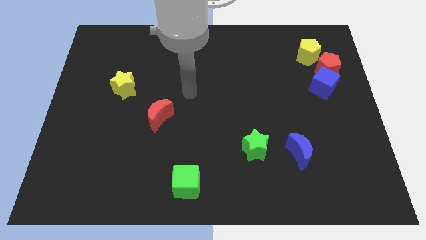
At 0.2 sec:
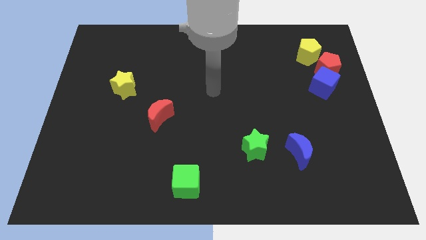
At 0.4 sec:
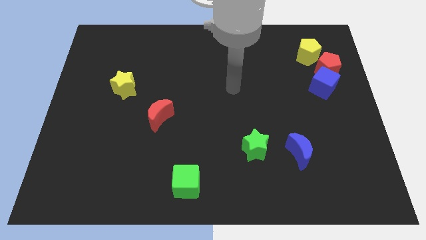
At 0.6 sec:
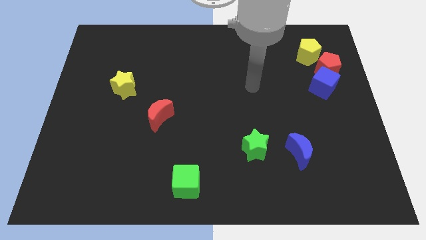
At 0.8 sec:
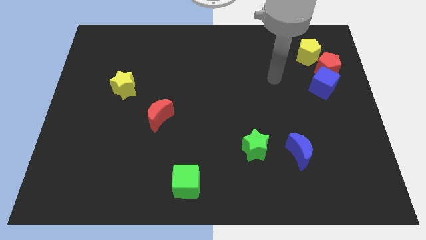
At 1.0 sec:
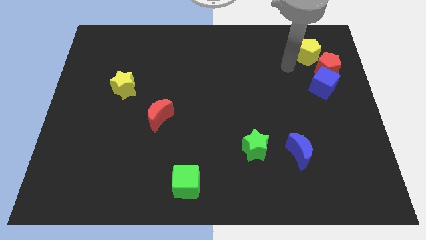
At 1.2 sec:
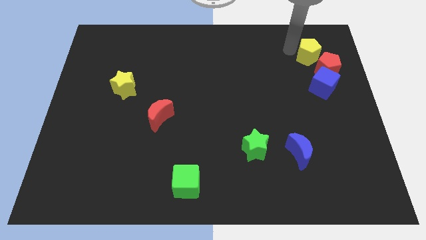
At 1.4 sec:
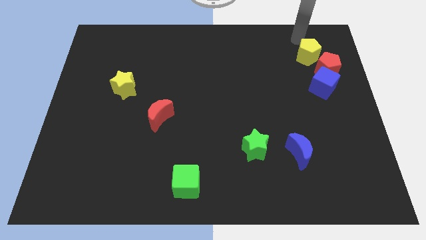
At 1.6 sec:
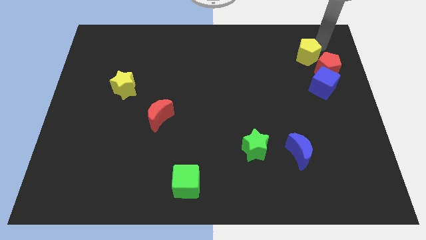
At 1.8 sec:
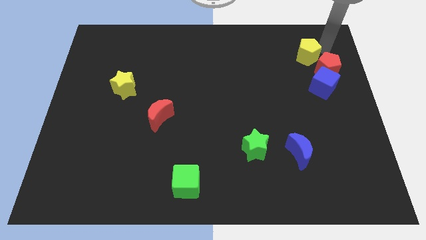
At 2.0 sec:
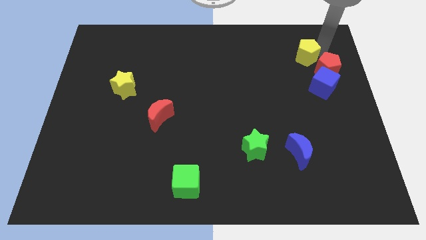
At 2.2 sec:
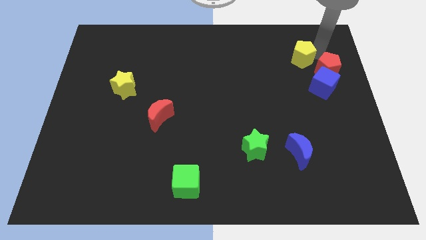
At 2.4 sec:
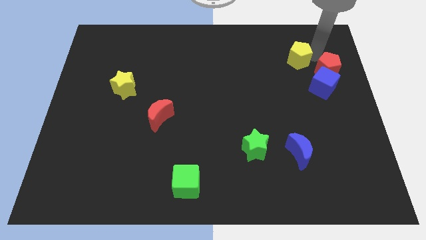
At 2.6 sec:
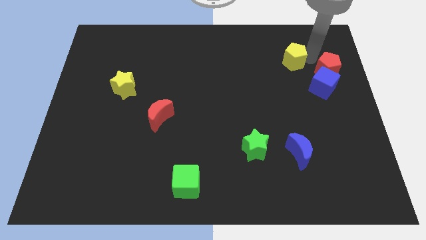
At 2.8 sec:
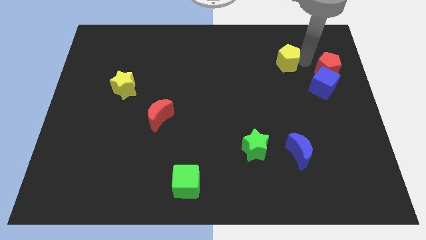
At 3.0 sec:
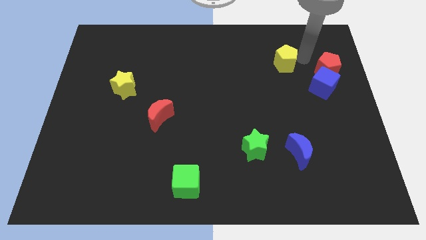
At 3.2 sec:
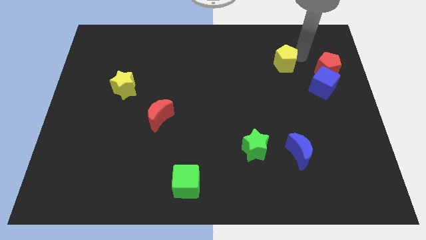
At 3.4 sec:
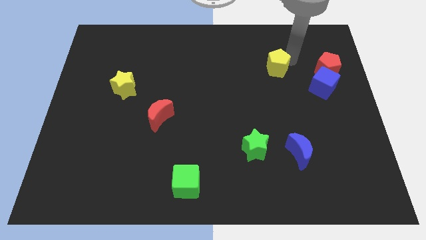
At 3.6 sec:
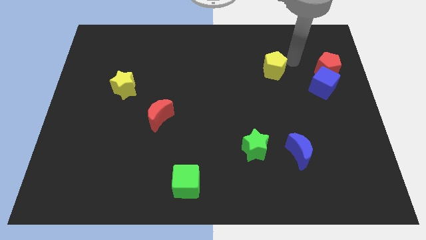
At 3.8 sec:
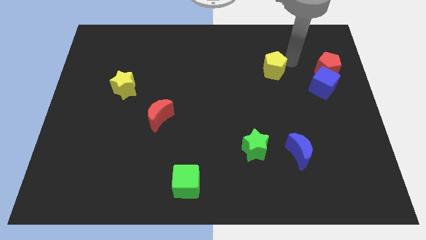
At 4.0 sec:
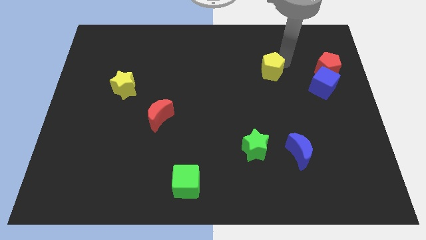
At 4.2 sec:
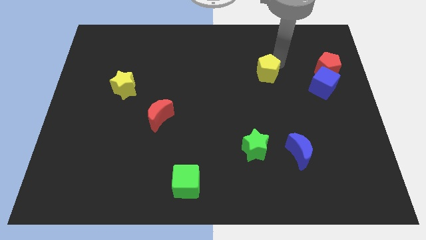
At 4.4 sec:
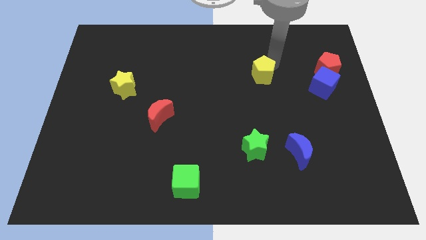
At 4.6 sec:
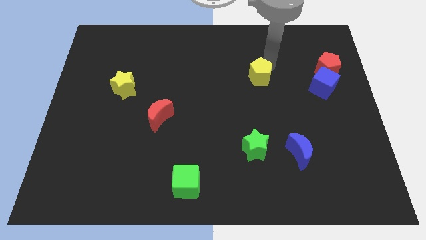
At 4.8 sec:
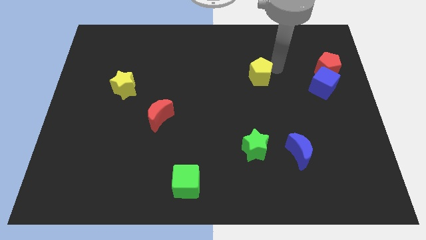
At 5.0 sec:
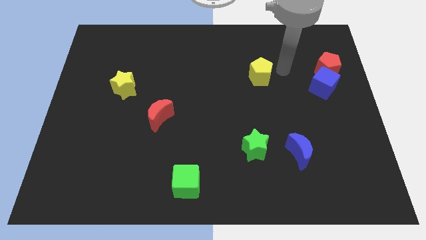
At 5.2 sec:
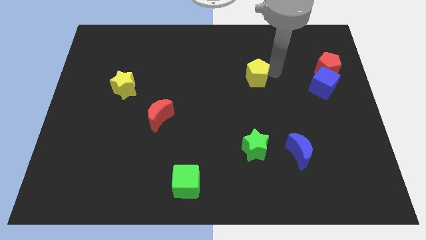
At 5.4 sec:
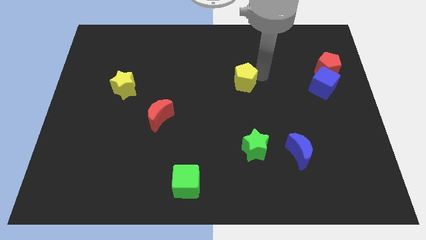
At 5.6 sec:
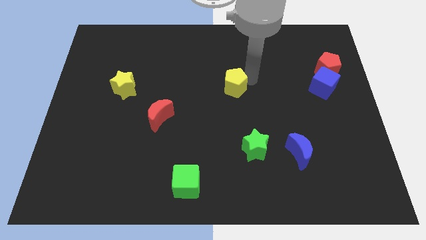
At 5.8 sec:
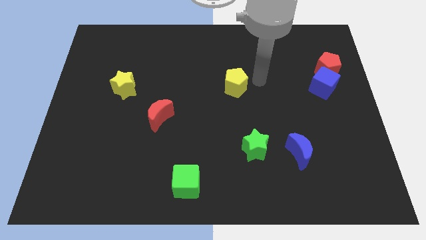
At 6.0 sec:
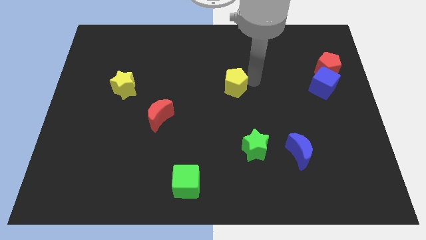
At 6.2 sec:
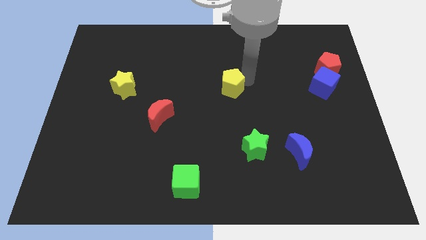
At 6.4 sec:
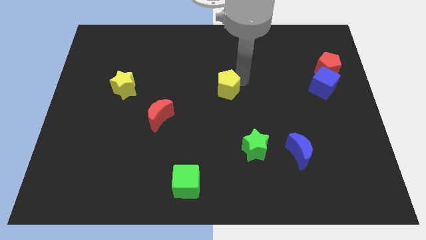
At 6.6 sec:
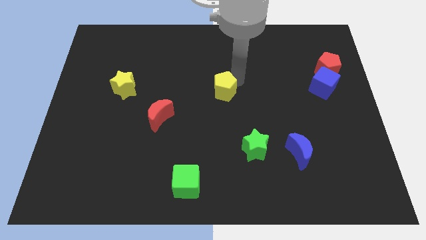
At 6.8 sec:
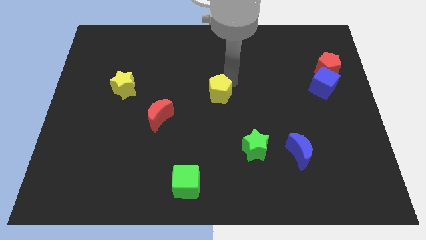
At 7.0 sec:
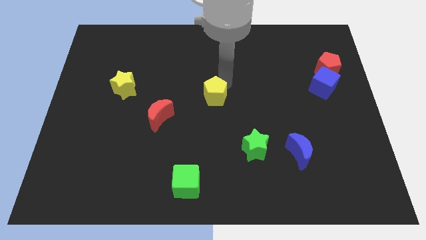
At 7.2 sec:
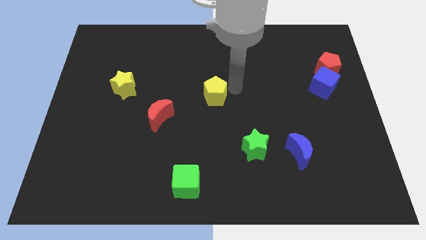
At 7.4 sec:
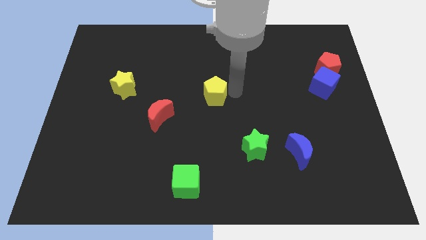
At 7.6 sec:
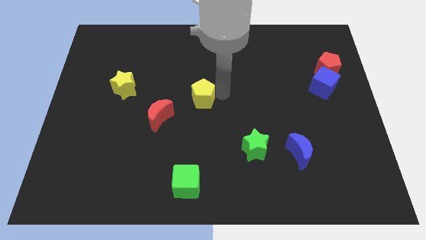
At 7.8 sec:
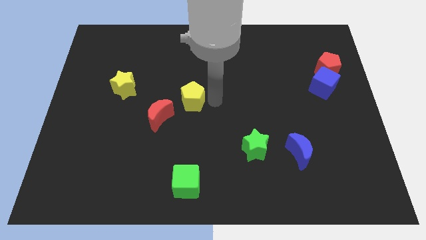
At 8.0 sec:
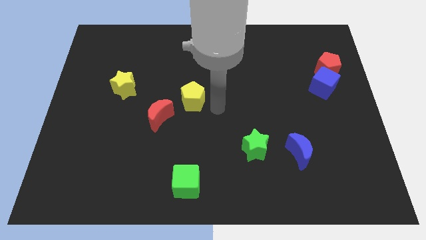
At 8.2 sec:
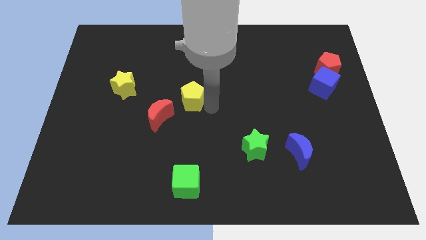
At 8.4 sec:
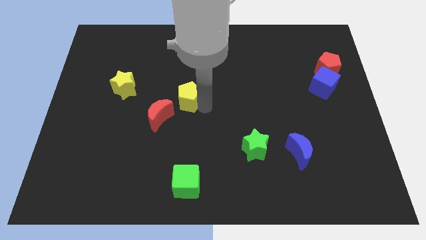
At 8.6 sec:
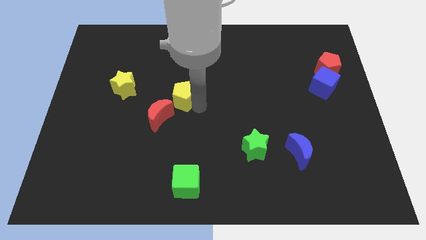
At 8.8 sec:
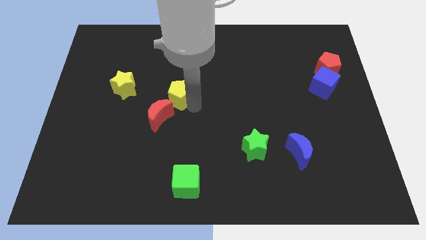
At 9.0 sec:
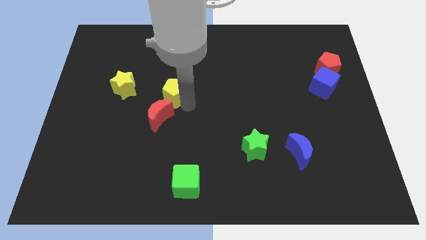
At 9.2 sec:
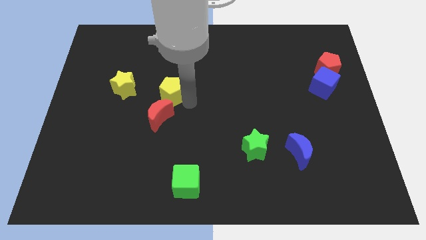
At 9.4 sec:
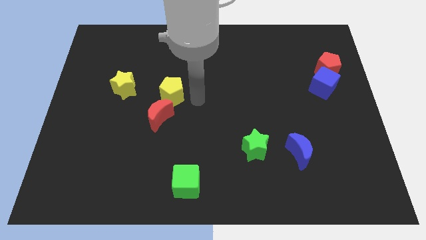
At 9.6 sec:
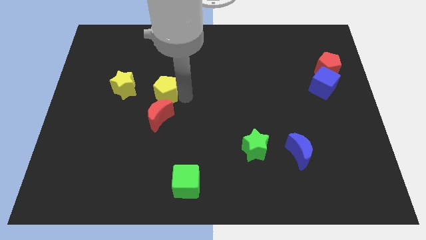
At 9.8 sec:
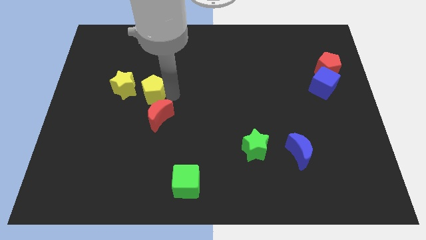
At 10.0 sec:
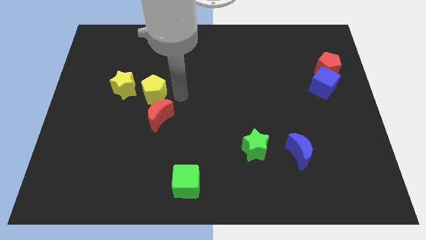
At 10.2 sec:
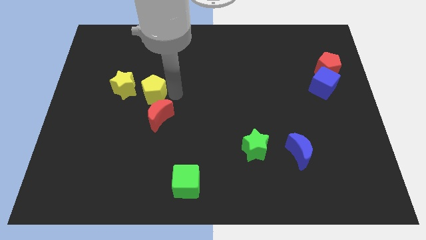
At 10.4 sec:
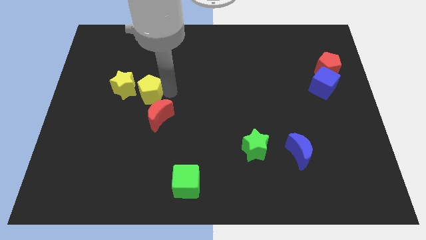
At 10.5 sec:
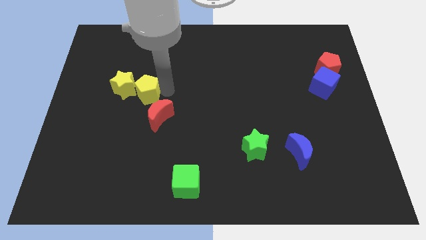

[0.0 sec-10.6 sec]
push the yellow pentagon next to the yellow star

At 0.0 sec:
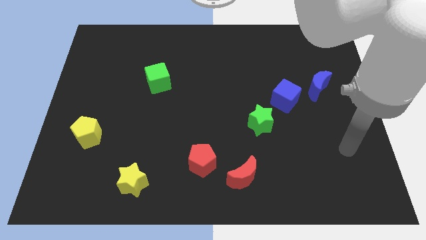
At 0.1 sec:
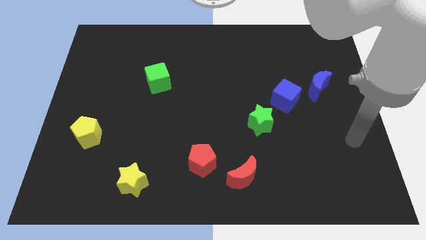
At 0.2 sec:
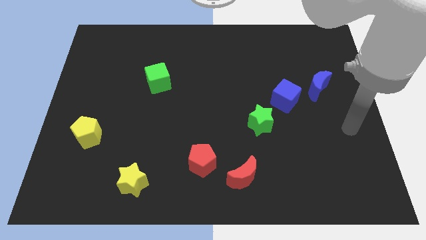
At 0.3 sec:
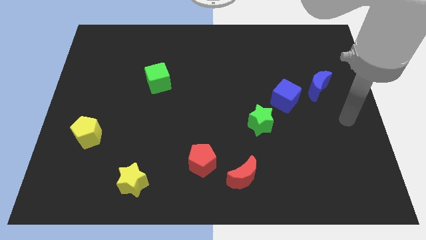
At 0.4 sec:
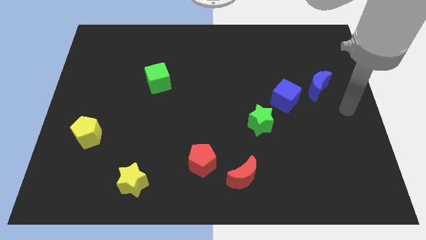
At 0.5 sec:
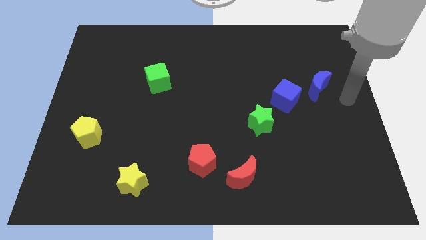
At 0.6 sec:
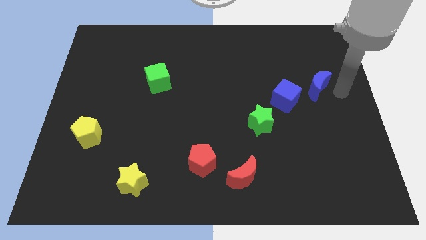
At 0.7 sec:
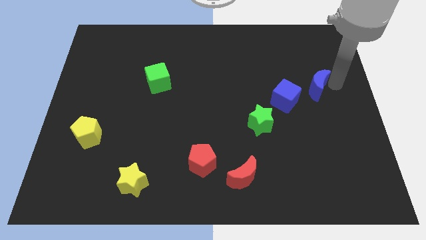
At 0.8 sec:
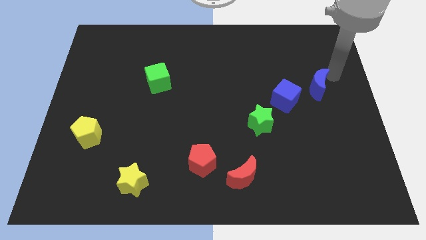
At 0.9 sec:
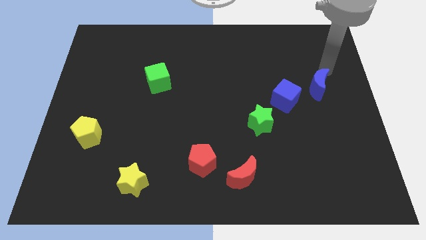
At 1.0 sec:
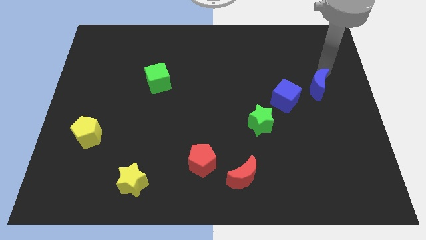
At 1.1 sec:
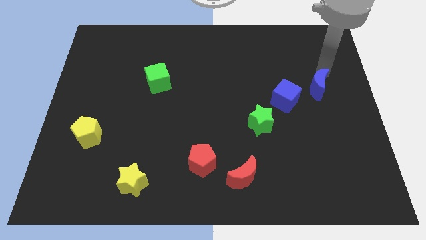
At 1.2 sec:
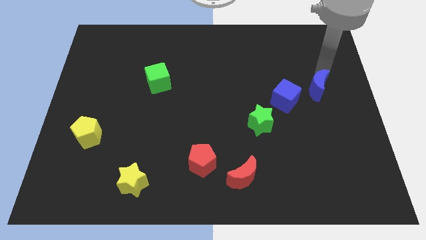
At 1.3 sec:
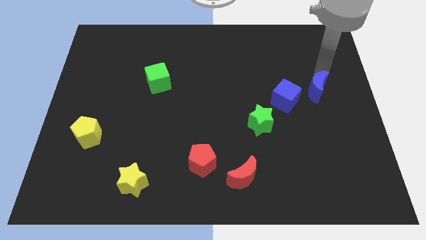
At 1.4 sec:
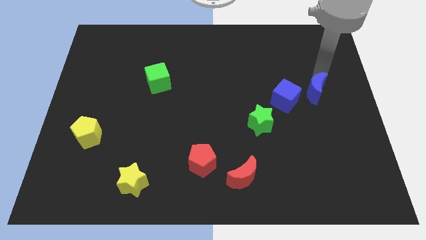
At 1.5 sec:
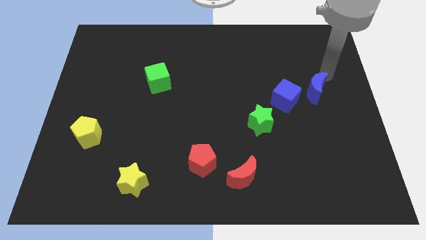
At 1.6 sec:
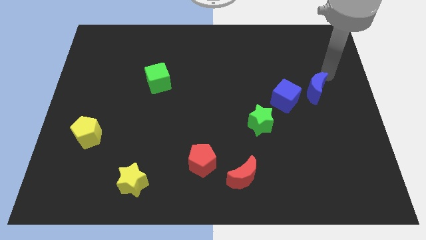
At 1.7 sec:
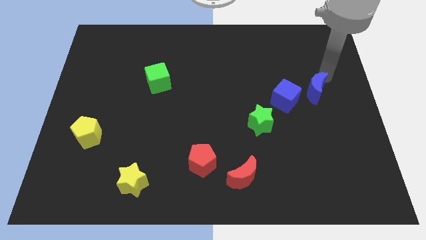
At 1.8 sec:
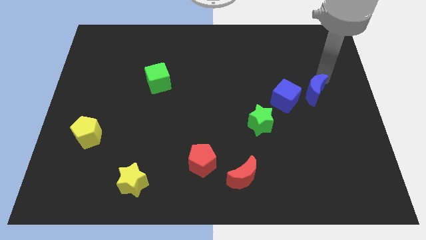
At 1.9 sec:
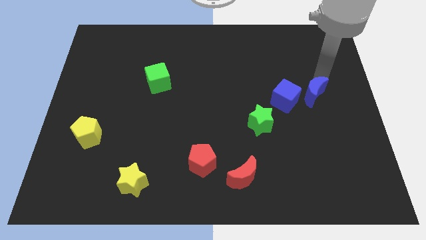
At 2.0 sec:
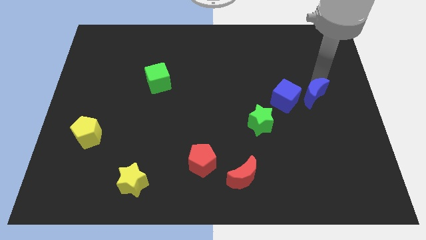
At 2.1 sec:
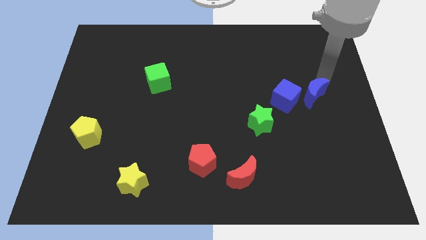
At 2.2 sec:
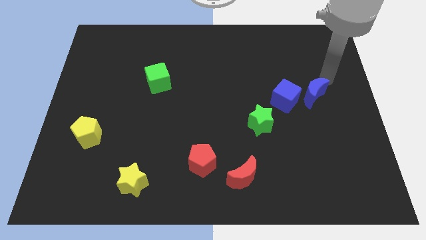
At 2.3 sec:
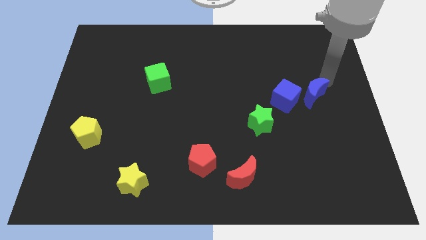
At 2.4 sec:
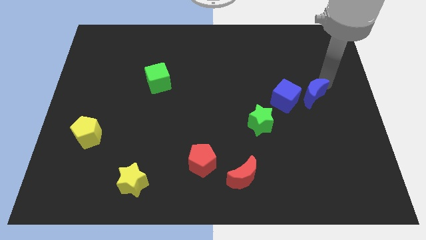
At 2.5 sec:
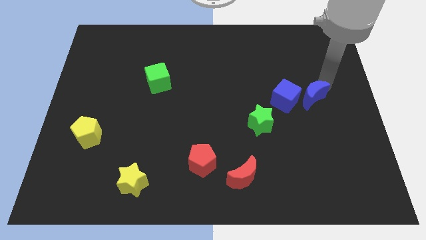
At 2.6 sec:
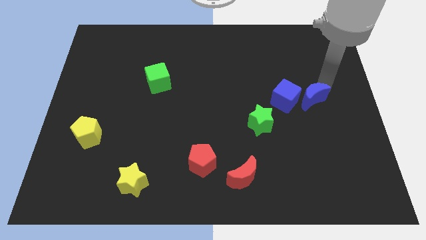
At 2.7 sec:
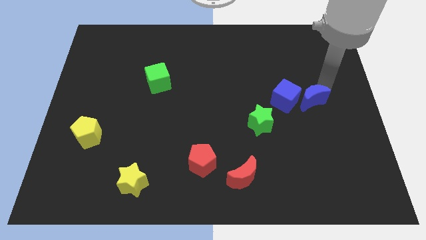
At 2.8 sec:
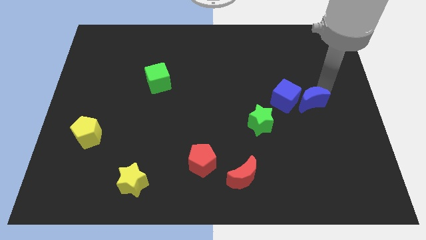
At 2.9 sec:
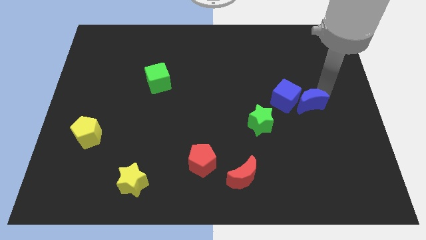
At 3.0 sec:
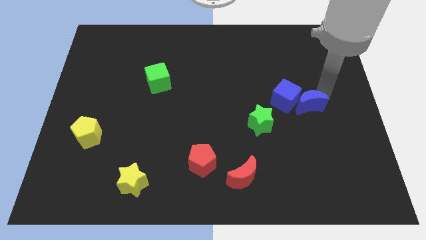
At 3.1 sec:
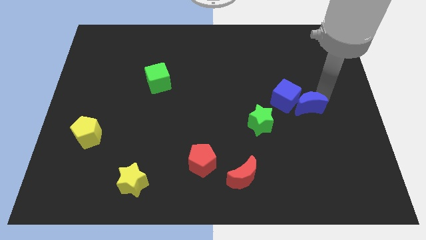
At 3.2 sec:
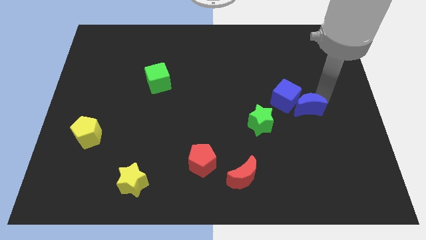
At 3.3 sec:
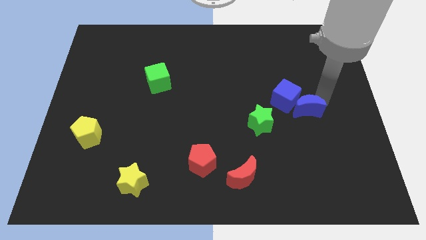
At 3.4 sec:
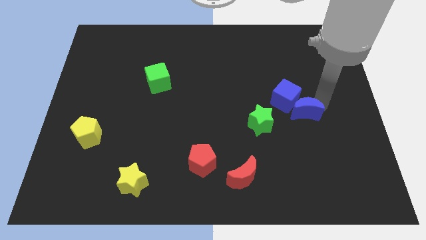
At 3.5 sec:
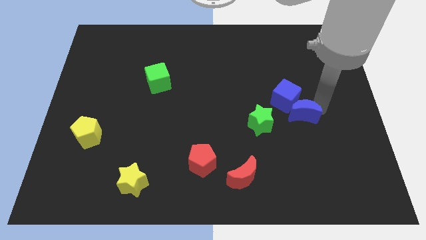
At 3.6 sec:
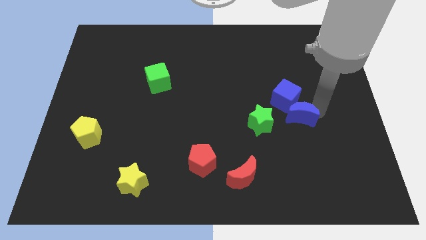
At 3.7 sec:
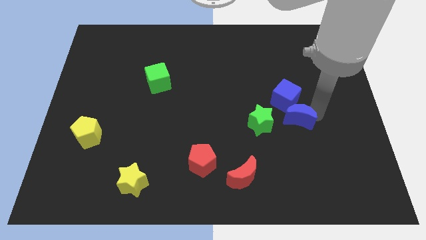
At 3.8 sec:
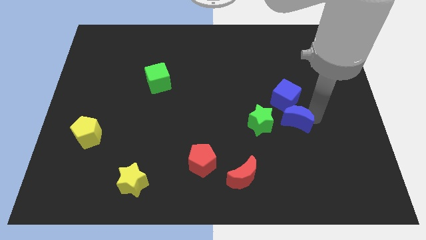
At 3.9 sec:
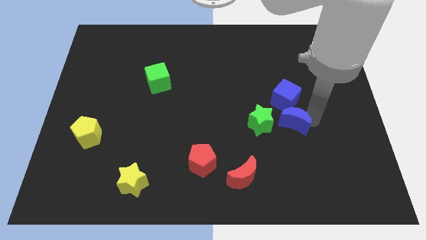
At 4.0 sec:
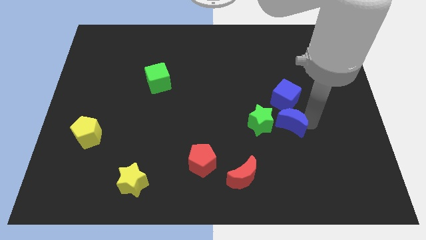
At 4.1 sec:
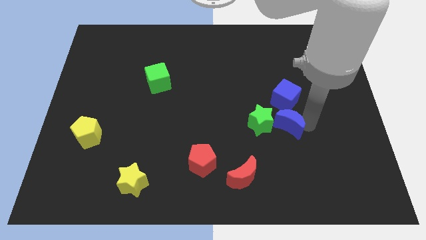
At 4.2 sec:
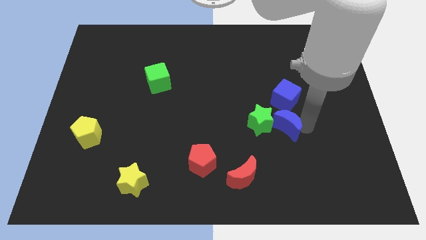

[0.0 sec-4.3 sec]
move the blue moon close to the green star
